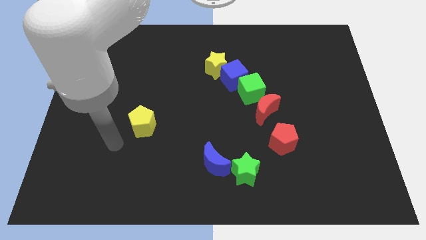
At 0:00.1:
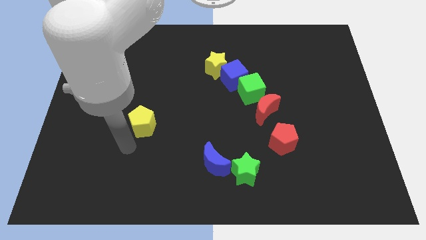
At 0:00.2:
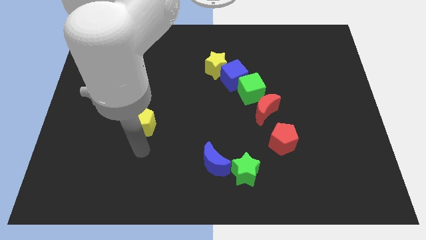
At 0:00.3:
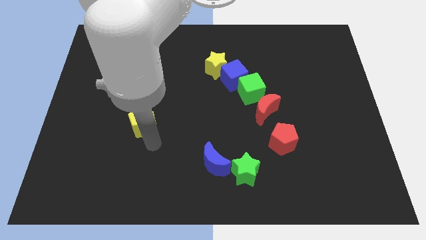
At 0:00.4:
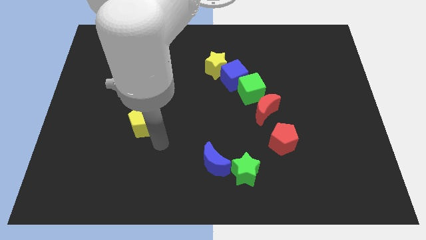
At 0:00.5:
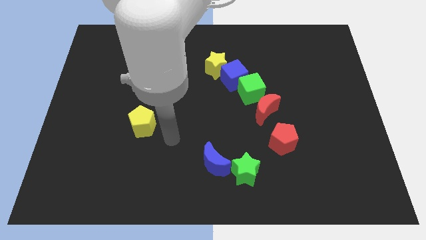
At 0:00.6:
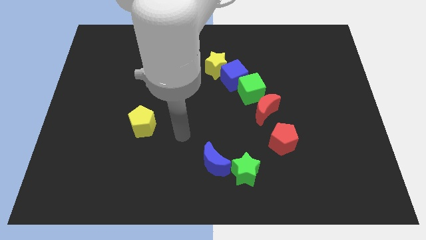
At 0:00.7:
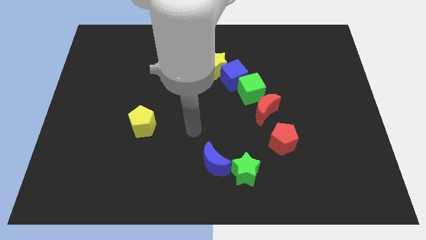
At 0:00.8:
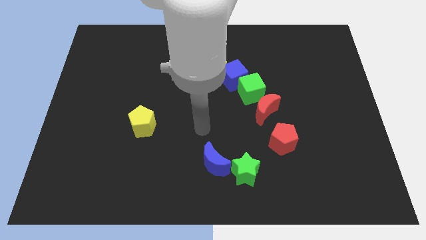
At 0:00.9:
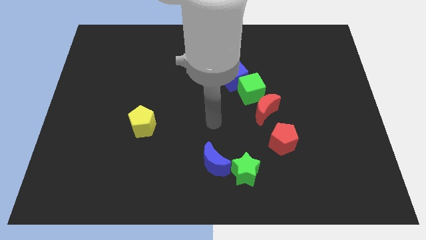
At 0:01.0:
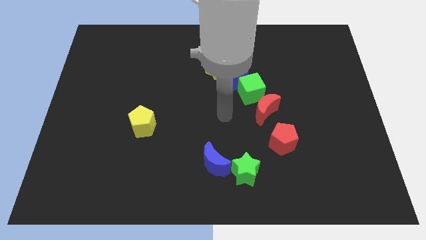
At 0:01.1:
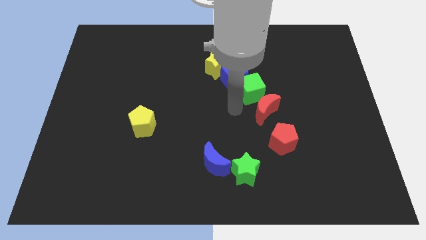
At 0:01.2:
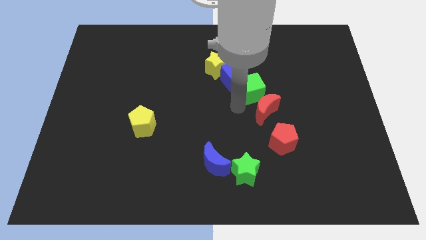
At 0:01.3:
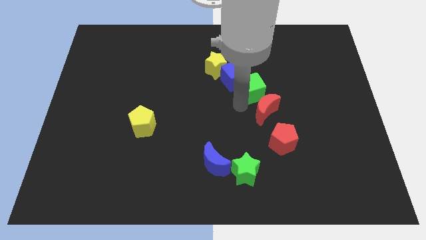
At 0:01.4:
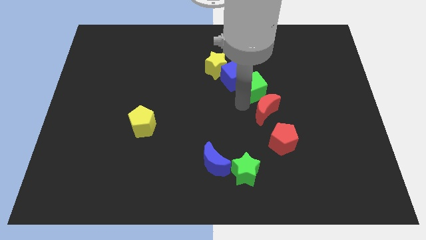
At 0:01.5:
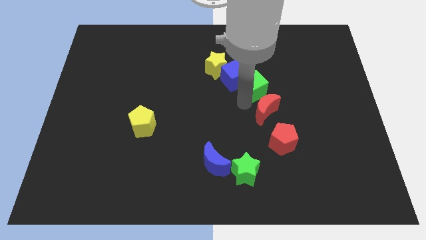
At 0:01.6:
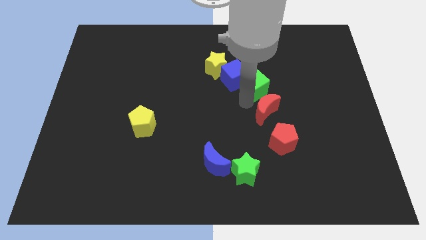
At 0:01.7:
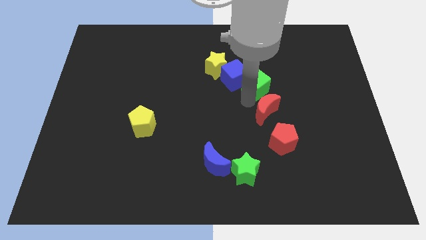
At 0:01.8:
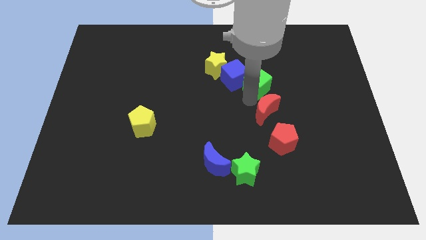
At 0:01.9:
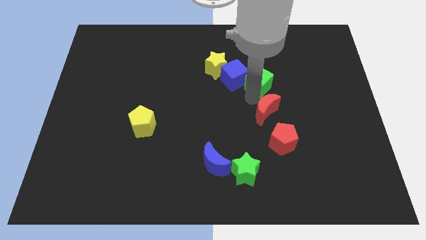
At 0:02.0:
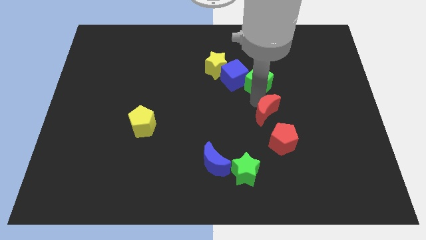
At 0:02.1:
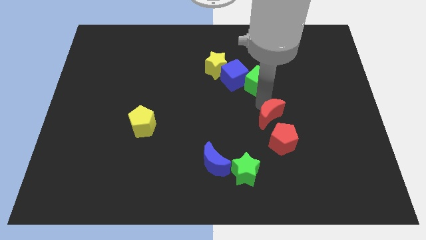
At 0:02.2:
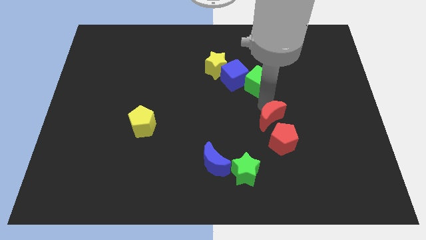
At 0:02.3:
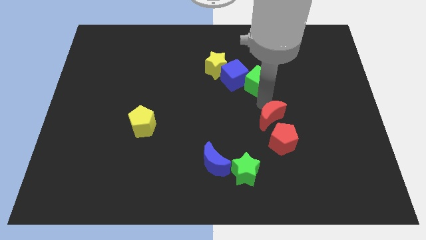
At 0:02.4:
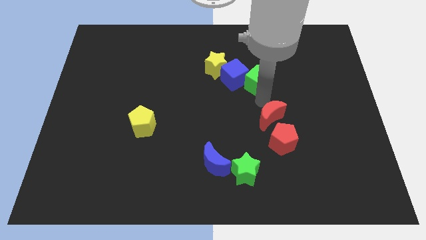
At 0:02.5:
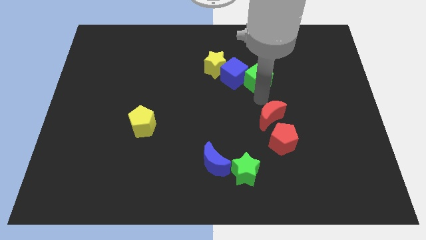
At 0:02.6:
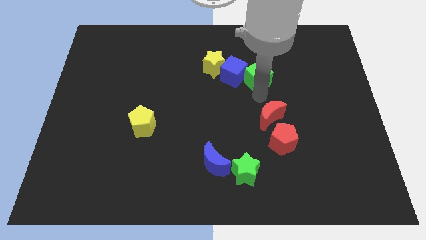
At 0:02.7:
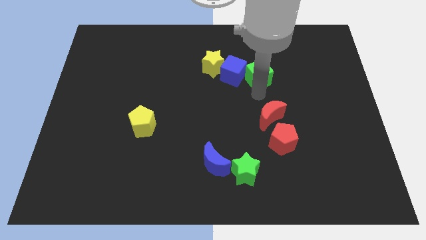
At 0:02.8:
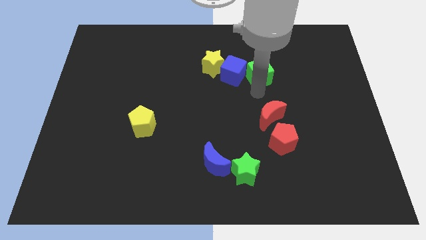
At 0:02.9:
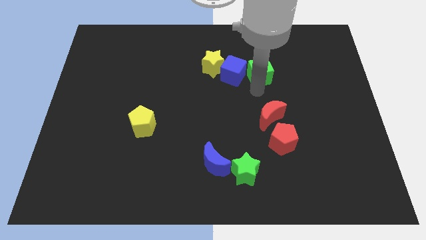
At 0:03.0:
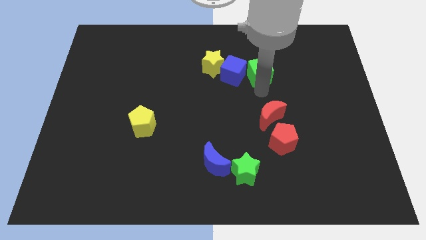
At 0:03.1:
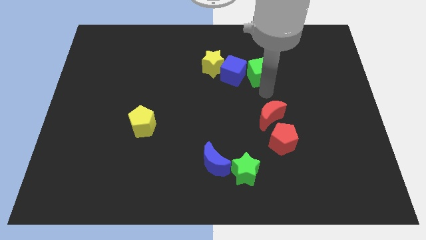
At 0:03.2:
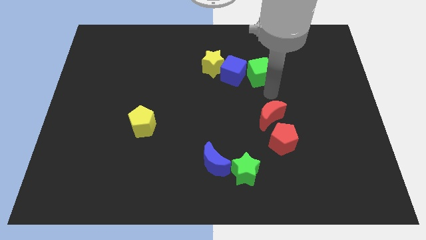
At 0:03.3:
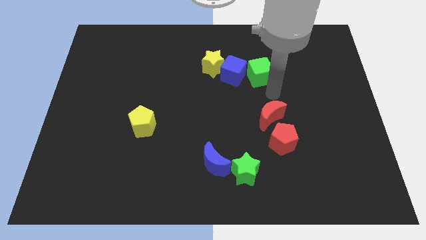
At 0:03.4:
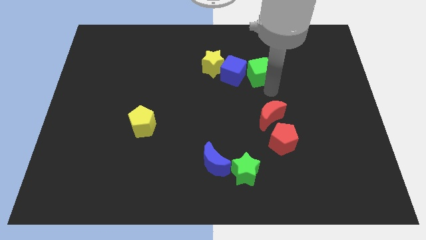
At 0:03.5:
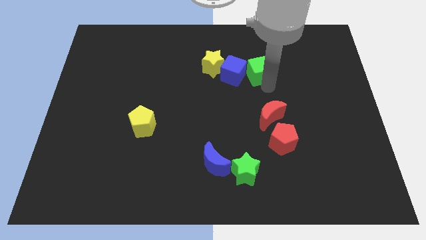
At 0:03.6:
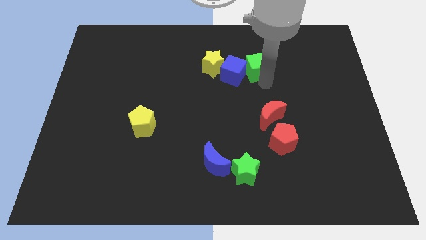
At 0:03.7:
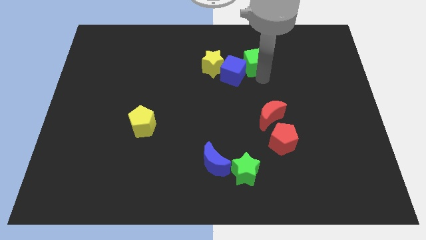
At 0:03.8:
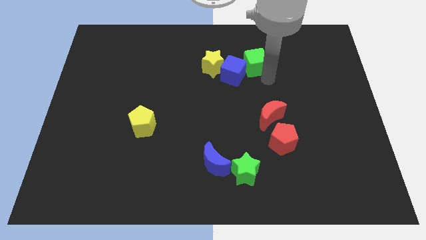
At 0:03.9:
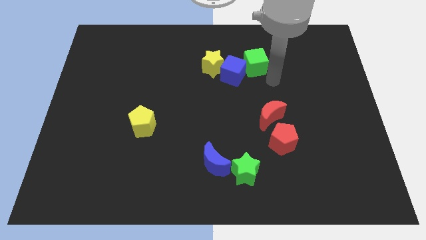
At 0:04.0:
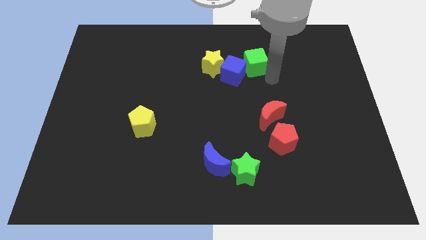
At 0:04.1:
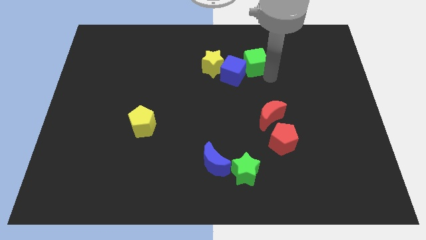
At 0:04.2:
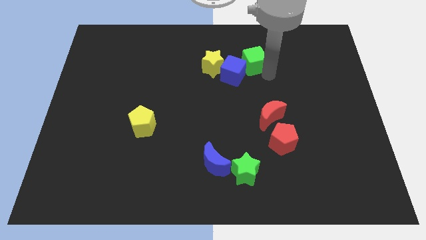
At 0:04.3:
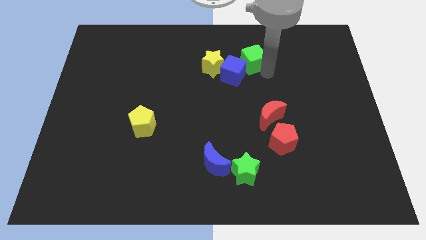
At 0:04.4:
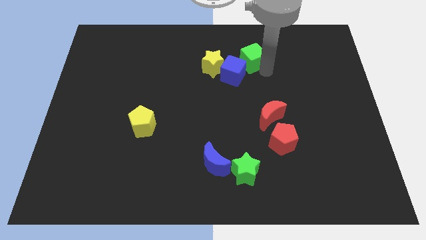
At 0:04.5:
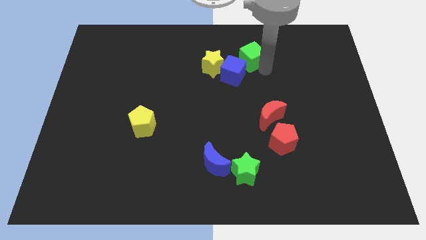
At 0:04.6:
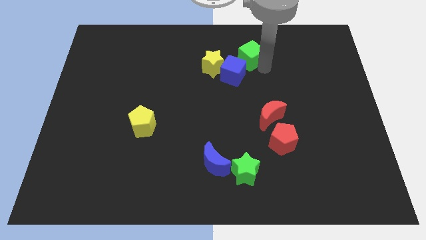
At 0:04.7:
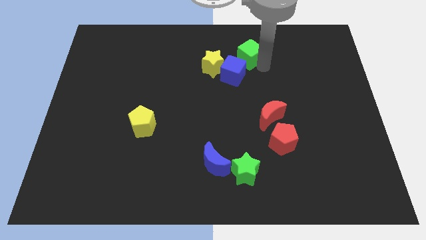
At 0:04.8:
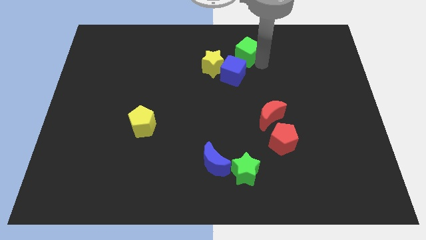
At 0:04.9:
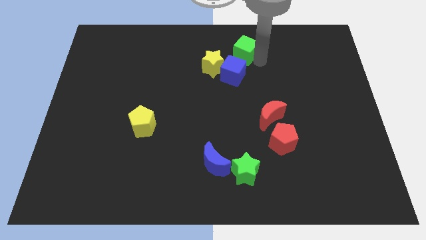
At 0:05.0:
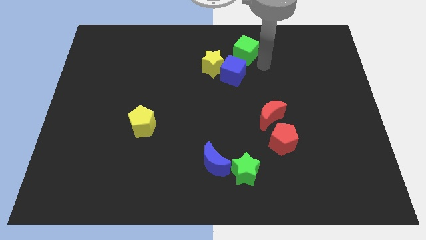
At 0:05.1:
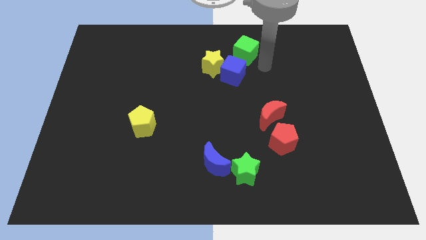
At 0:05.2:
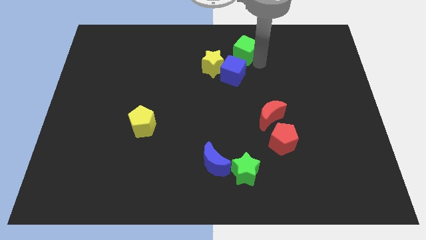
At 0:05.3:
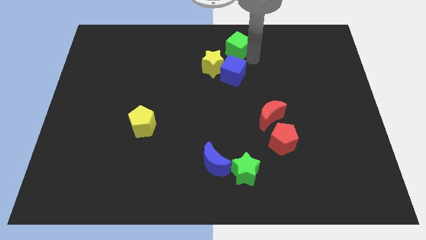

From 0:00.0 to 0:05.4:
move the green cube to the towards your base
